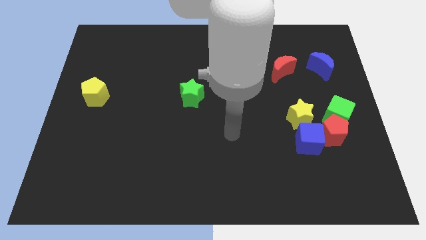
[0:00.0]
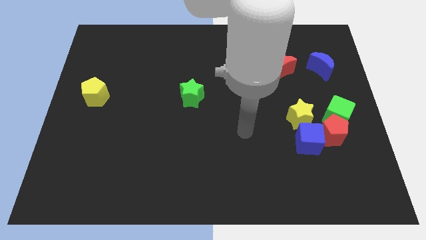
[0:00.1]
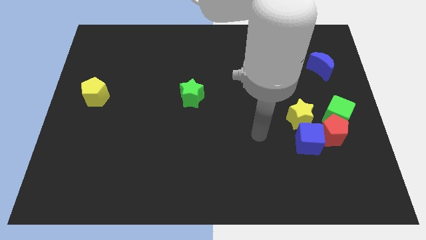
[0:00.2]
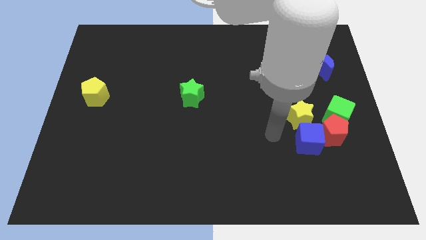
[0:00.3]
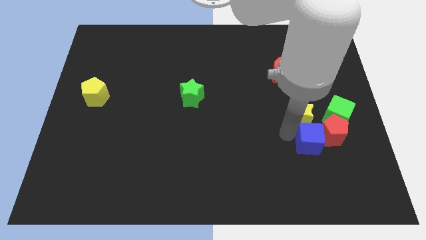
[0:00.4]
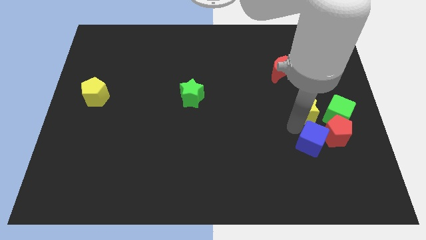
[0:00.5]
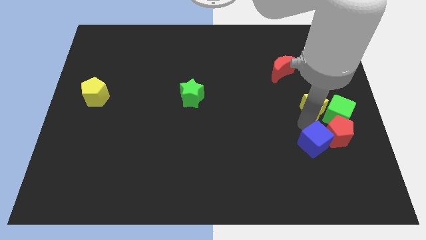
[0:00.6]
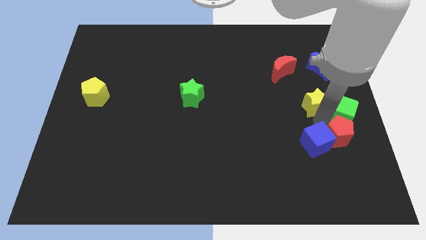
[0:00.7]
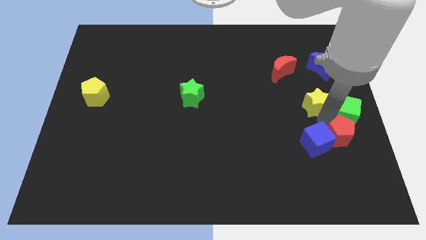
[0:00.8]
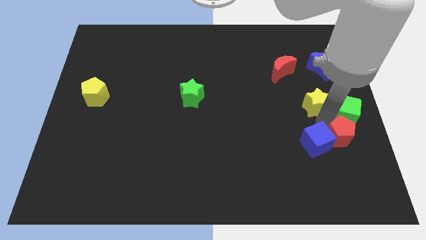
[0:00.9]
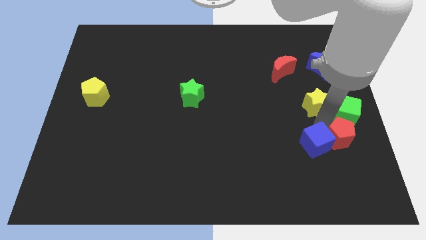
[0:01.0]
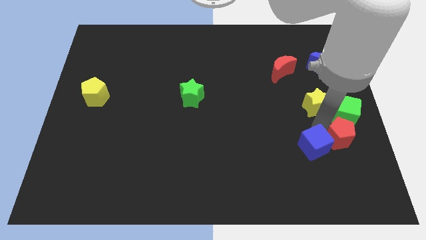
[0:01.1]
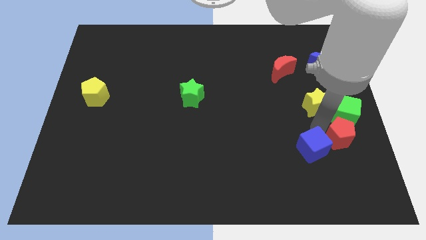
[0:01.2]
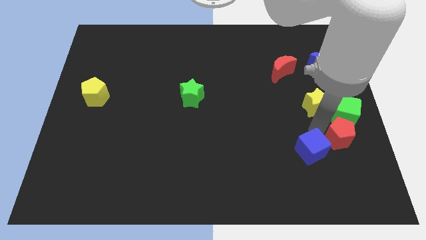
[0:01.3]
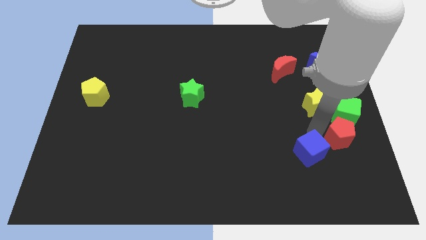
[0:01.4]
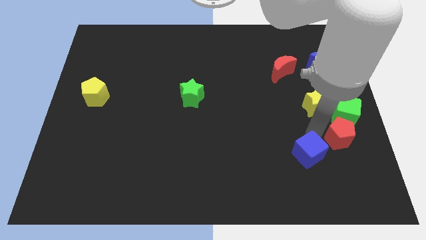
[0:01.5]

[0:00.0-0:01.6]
separate the blue cube from the red pentagon and yellow star

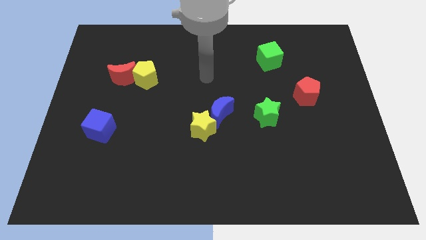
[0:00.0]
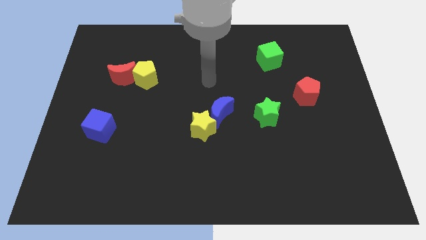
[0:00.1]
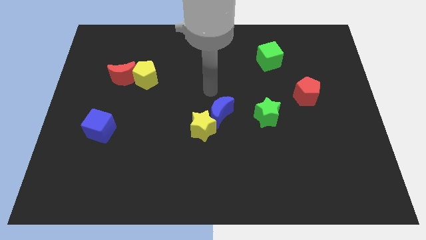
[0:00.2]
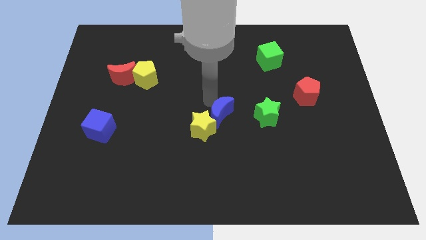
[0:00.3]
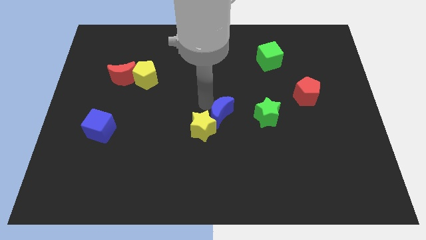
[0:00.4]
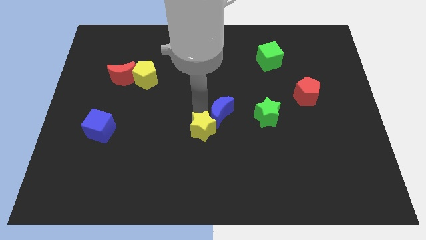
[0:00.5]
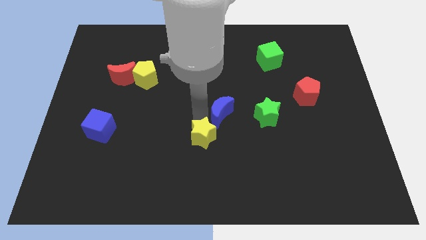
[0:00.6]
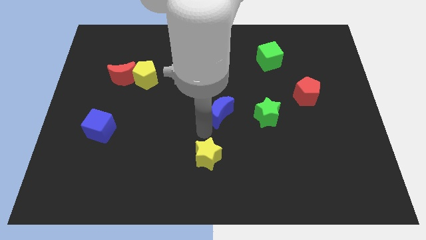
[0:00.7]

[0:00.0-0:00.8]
move the blue moon away from the yellow star

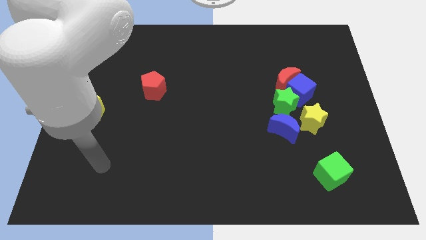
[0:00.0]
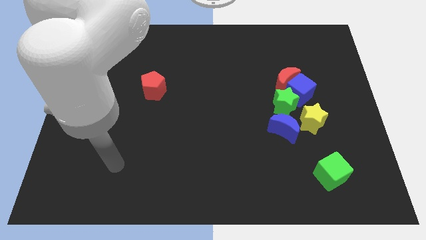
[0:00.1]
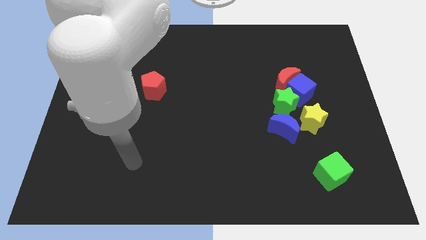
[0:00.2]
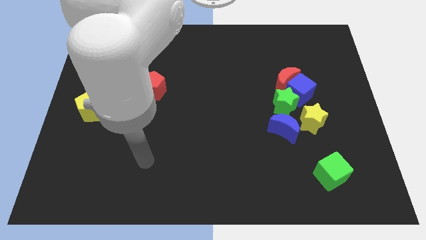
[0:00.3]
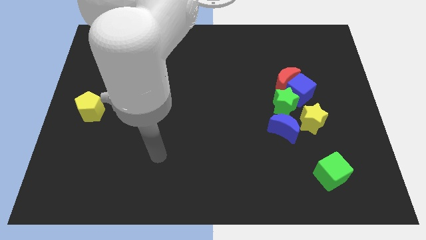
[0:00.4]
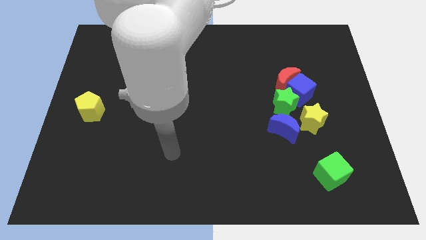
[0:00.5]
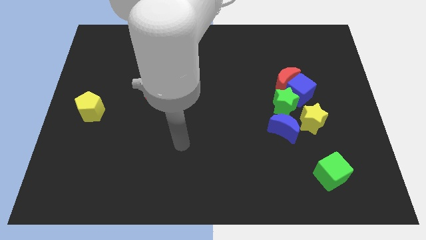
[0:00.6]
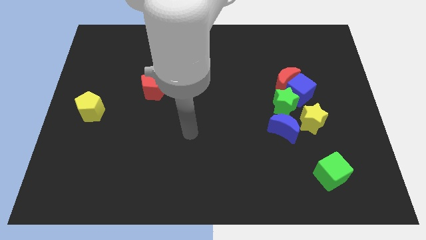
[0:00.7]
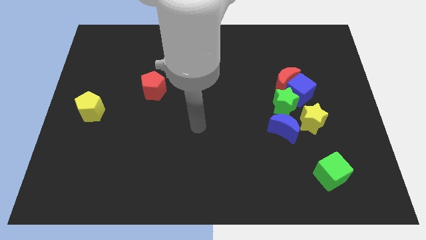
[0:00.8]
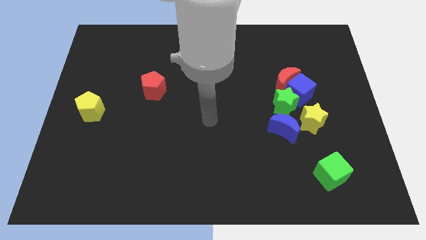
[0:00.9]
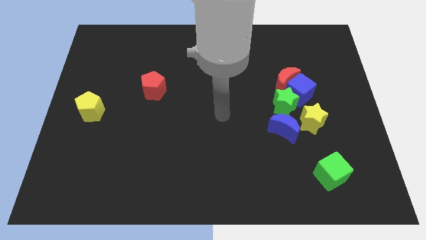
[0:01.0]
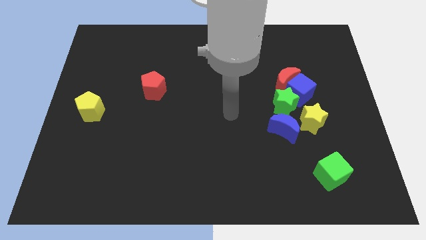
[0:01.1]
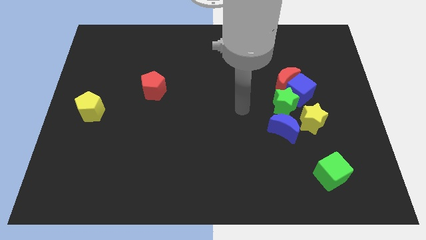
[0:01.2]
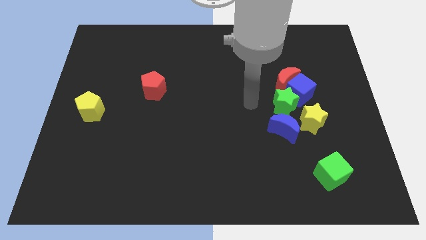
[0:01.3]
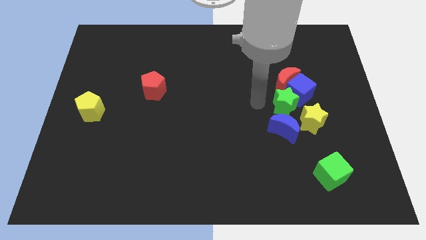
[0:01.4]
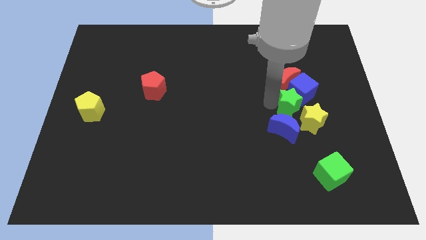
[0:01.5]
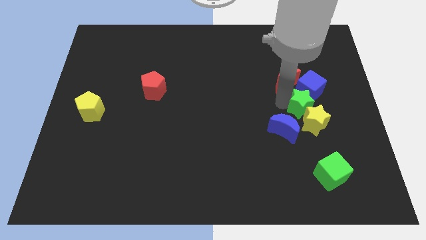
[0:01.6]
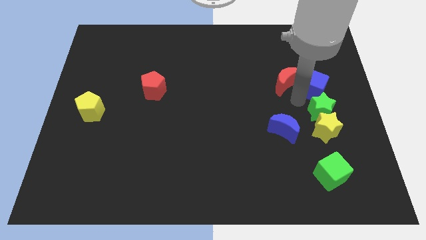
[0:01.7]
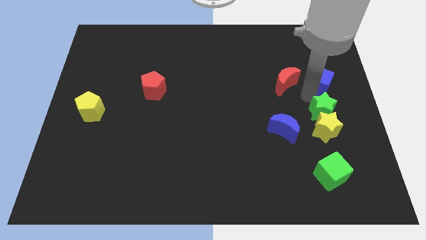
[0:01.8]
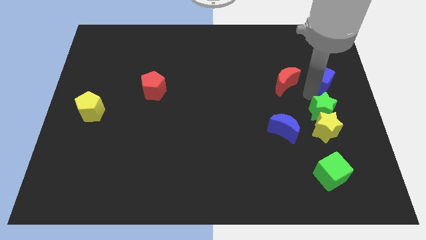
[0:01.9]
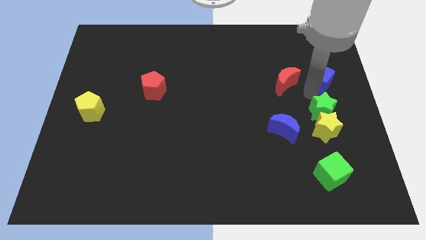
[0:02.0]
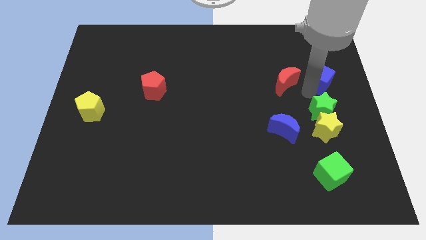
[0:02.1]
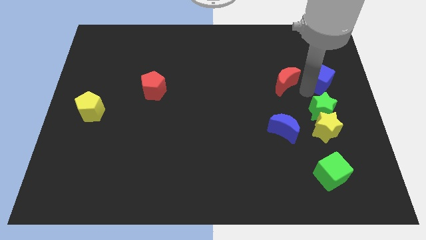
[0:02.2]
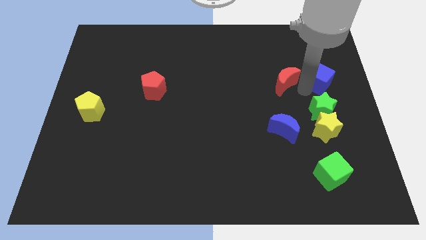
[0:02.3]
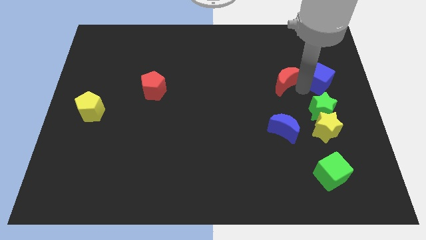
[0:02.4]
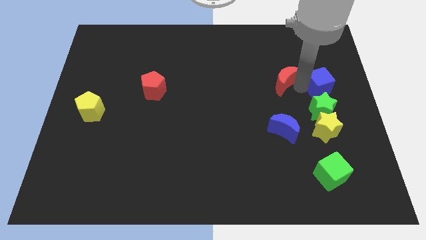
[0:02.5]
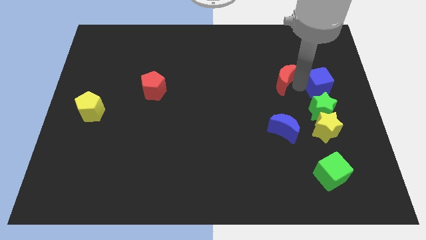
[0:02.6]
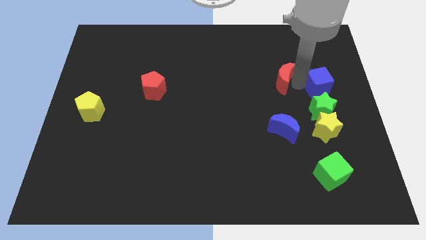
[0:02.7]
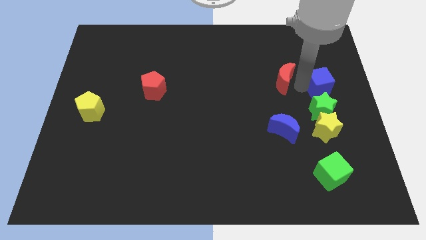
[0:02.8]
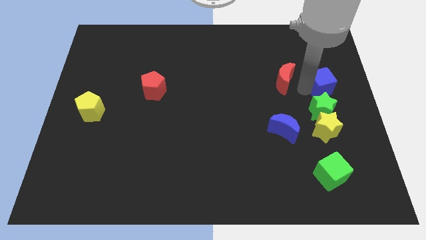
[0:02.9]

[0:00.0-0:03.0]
move the red moon away from the blue cube and green star

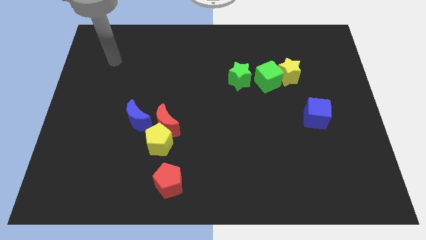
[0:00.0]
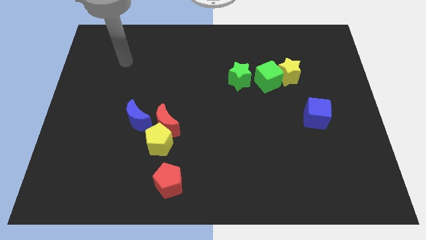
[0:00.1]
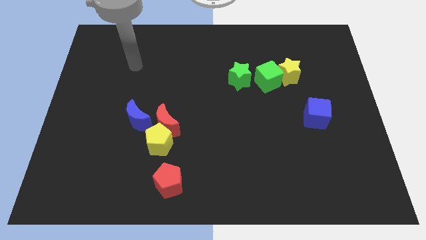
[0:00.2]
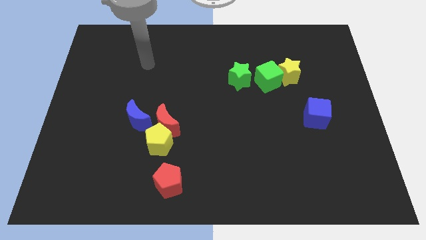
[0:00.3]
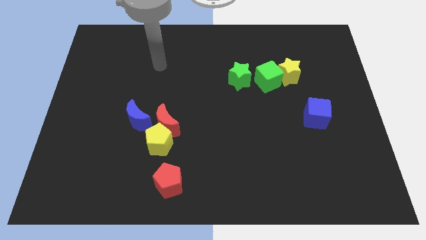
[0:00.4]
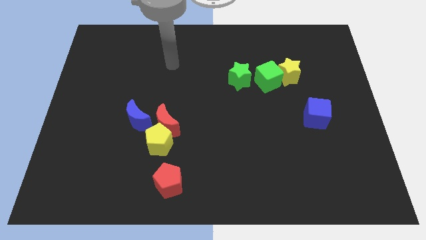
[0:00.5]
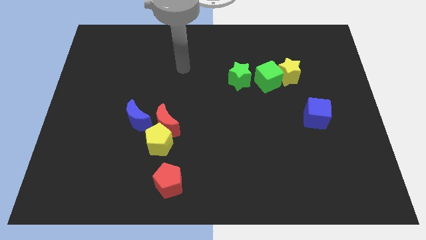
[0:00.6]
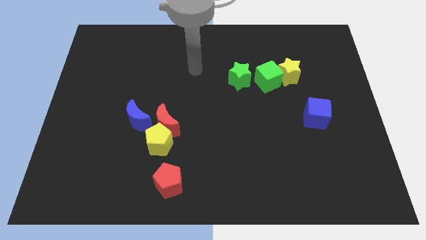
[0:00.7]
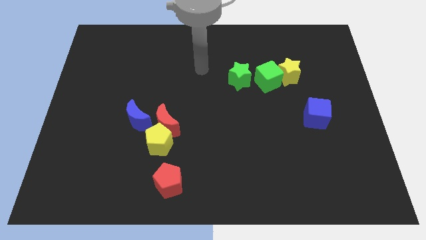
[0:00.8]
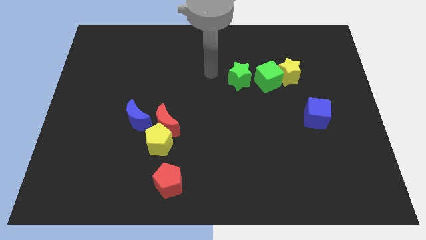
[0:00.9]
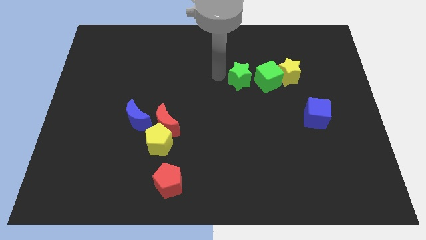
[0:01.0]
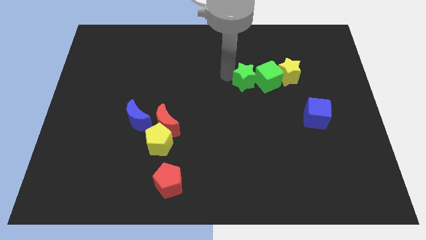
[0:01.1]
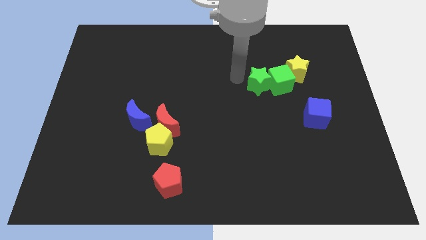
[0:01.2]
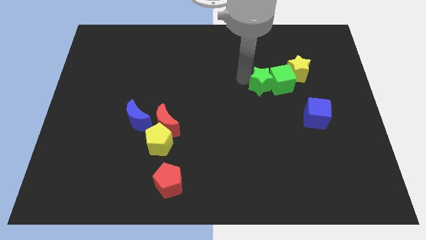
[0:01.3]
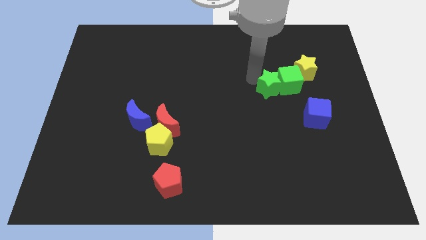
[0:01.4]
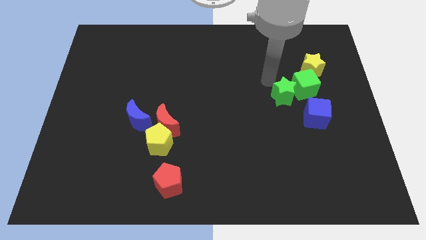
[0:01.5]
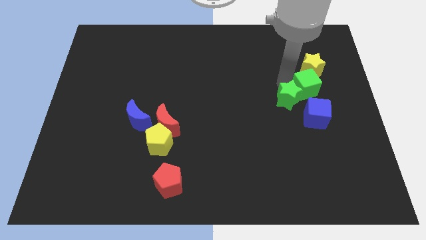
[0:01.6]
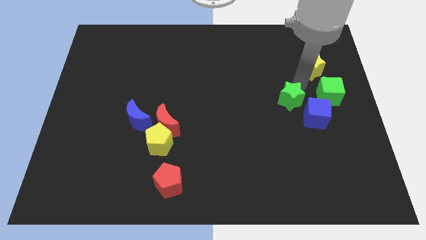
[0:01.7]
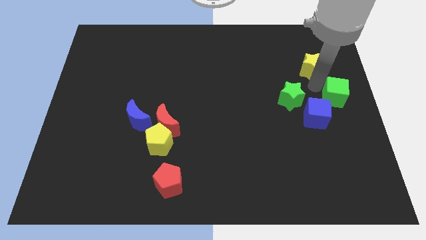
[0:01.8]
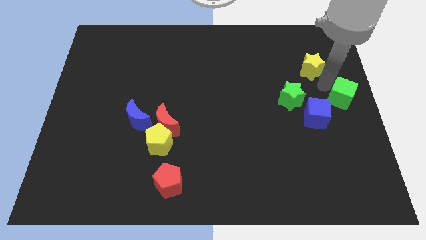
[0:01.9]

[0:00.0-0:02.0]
pull the yellow star apart from the green cube

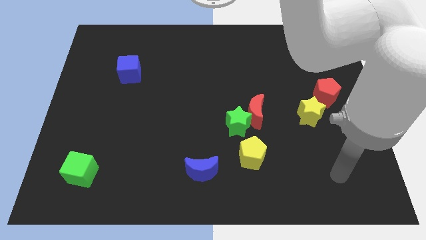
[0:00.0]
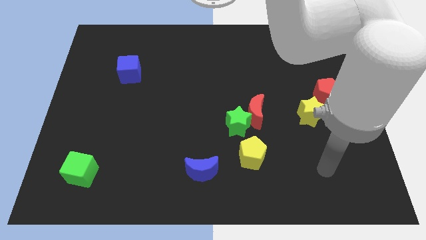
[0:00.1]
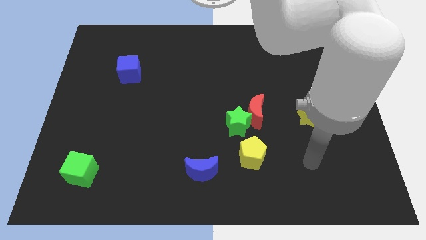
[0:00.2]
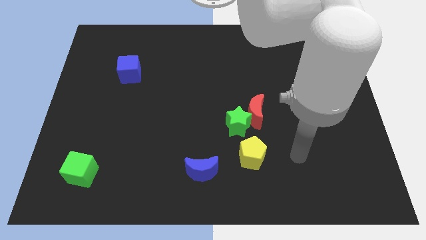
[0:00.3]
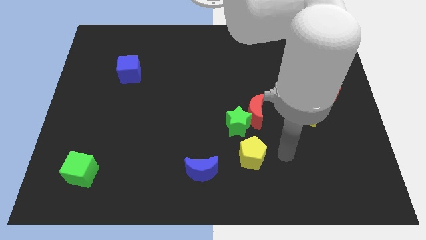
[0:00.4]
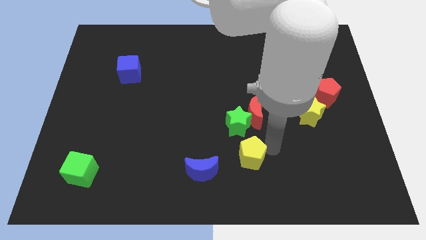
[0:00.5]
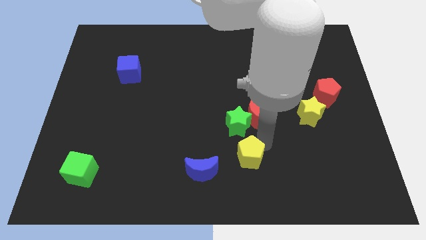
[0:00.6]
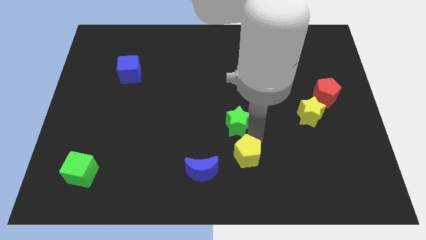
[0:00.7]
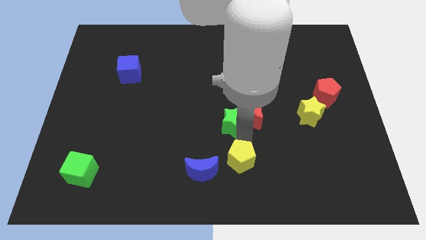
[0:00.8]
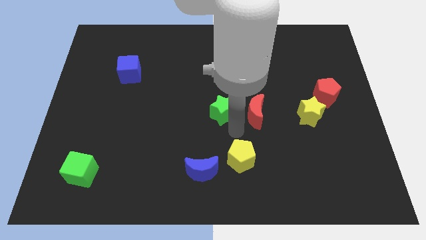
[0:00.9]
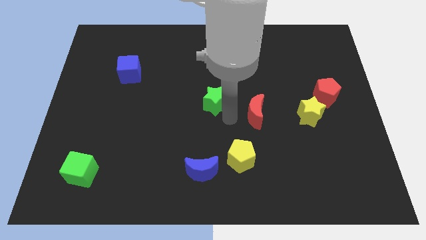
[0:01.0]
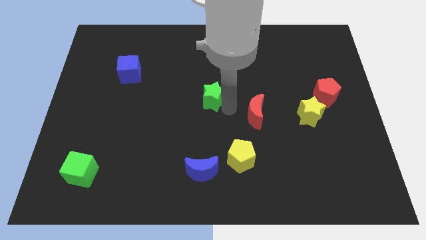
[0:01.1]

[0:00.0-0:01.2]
move the red moon away from the green star

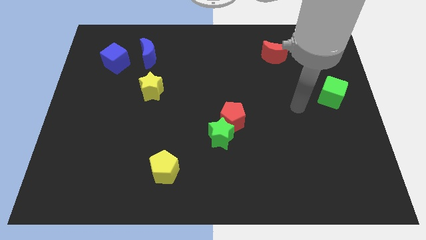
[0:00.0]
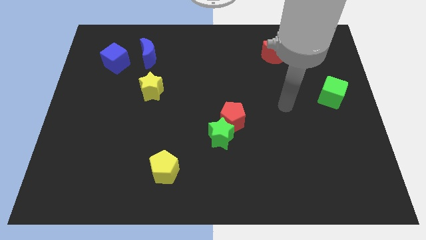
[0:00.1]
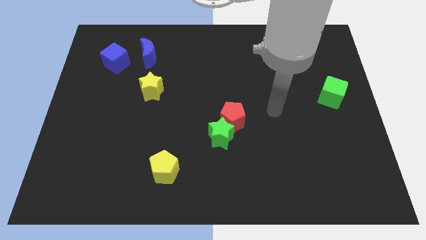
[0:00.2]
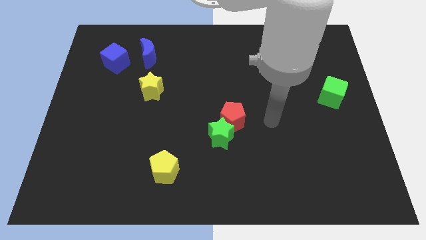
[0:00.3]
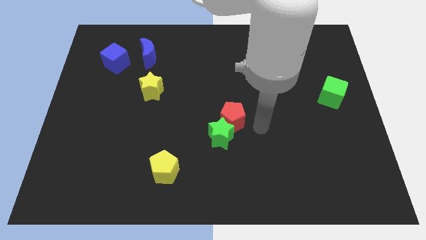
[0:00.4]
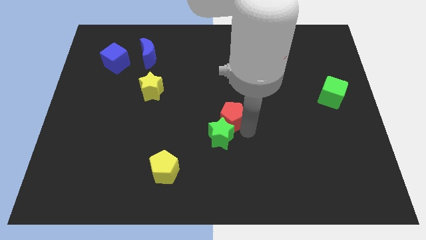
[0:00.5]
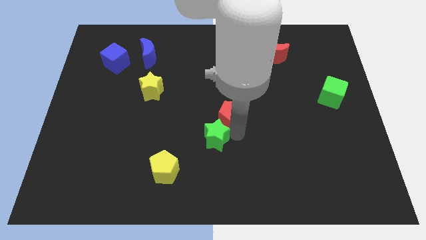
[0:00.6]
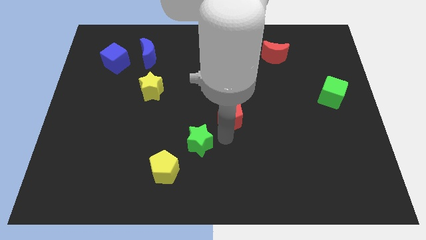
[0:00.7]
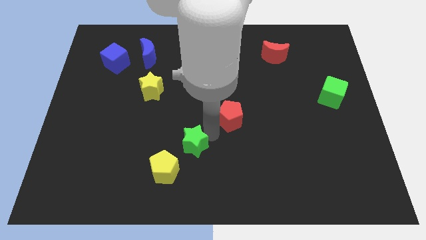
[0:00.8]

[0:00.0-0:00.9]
pull the red pentagon apart from the green star

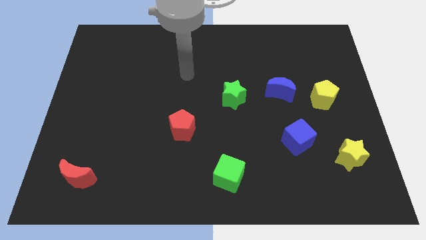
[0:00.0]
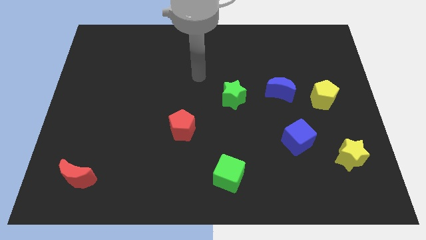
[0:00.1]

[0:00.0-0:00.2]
pull the blue moon apart from the yellow pentagon
